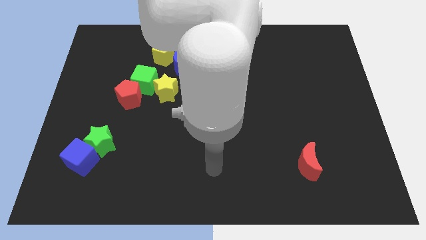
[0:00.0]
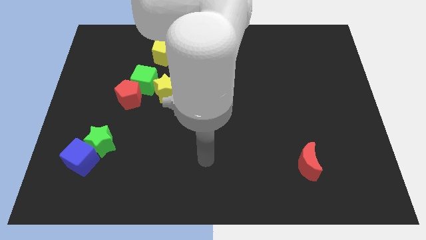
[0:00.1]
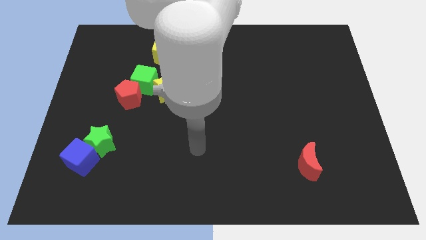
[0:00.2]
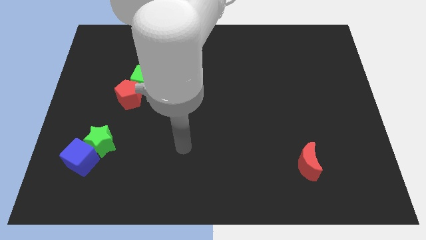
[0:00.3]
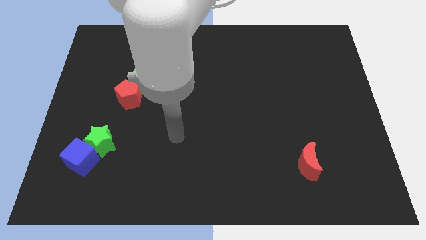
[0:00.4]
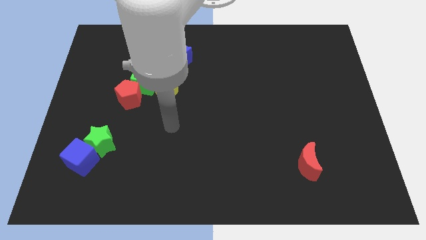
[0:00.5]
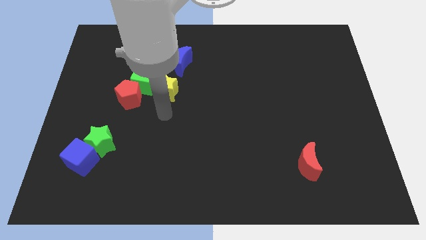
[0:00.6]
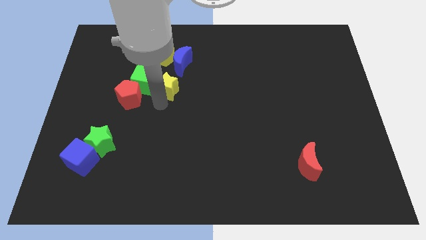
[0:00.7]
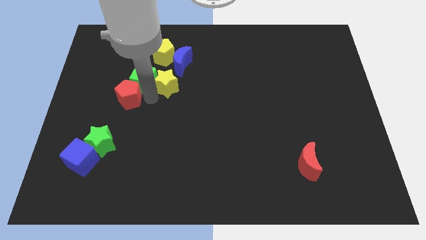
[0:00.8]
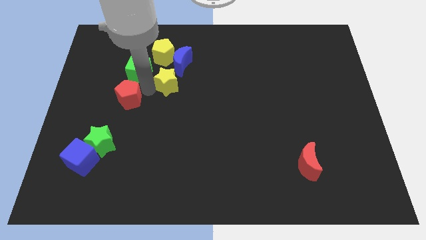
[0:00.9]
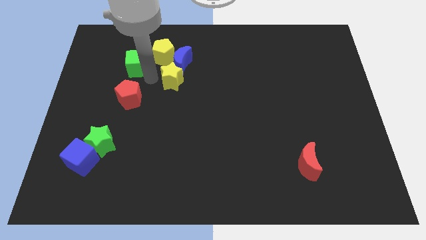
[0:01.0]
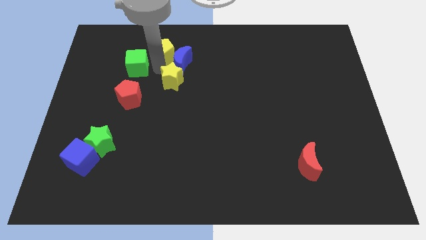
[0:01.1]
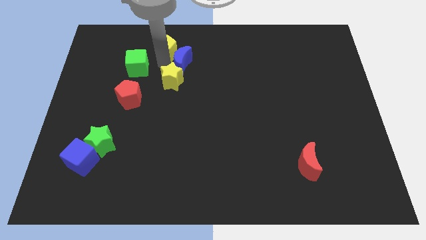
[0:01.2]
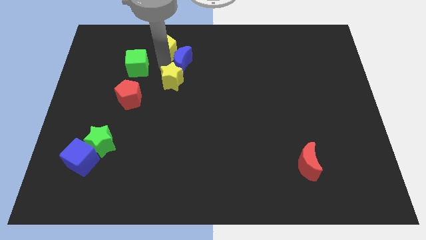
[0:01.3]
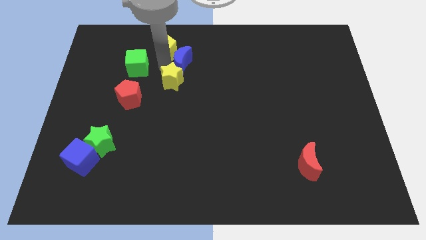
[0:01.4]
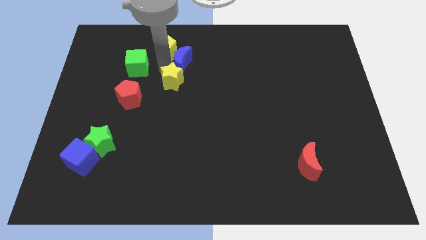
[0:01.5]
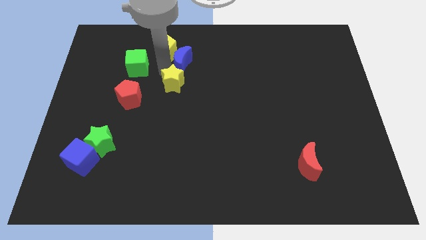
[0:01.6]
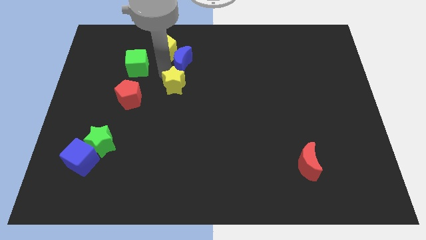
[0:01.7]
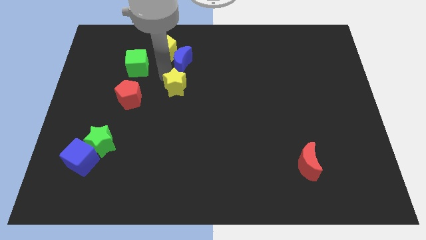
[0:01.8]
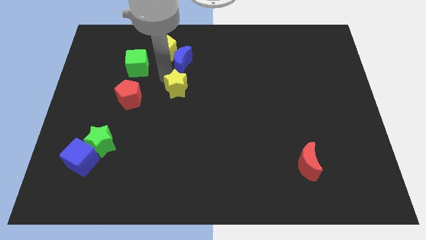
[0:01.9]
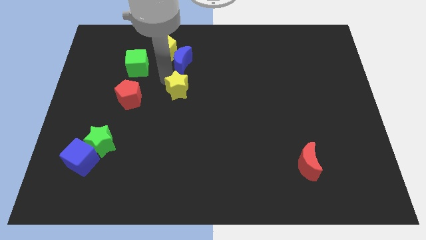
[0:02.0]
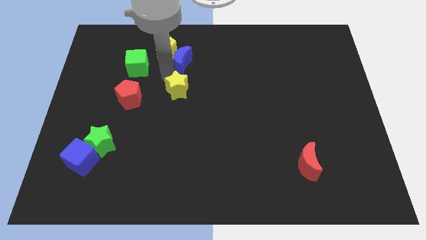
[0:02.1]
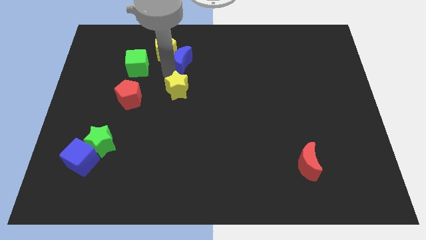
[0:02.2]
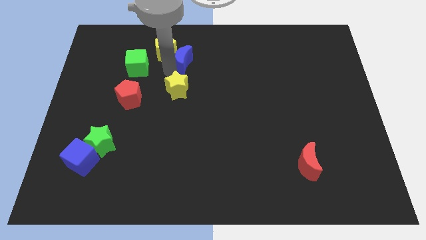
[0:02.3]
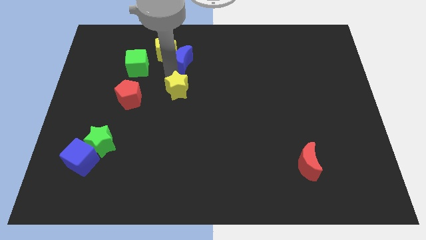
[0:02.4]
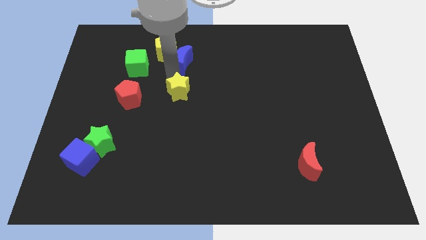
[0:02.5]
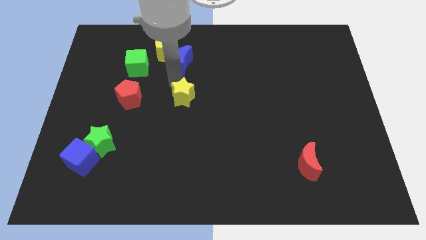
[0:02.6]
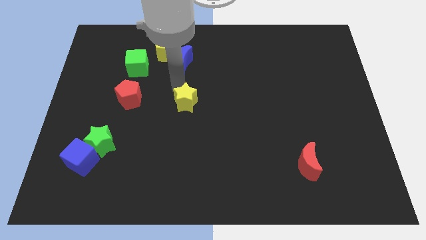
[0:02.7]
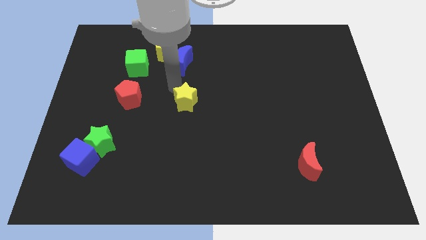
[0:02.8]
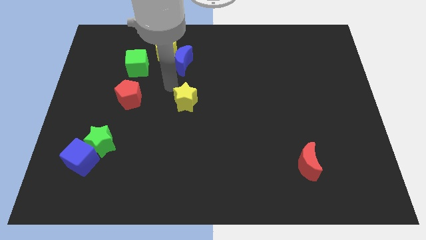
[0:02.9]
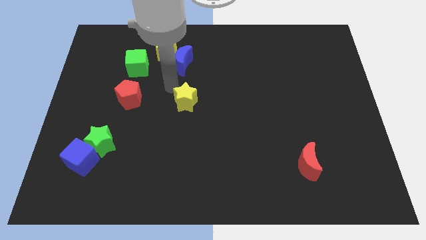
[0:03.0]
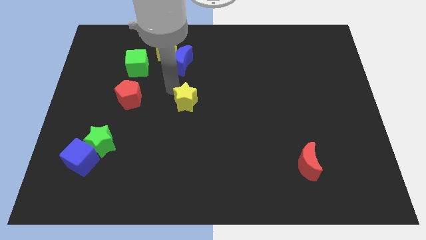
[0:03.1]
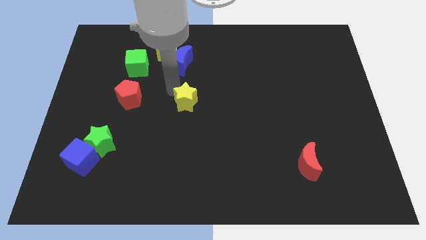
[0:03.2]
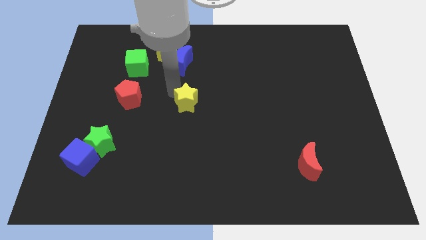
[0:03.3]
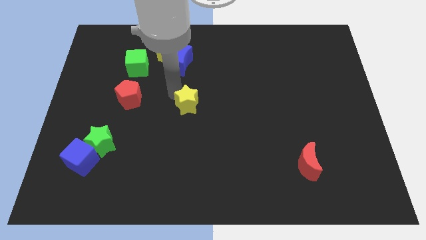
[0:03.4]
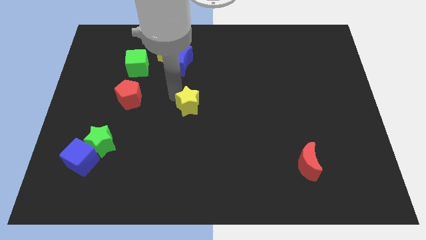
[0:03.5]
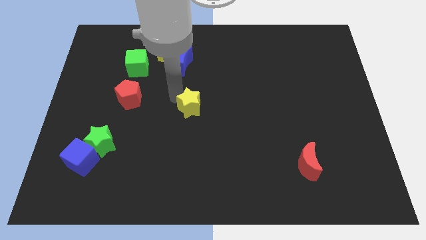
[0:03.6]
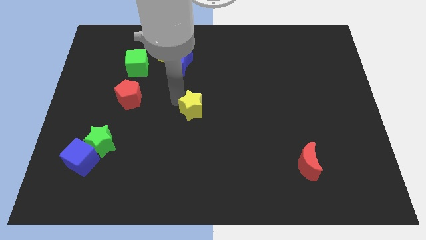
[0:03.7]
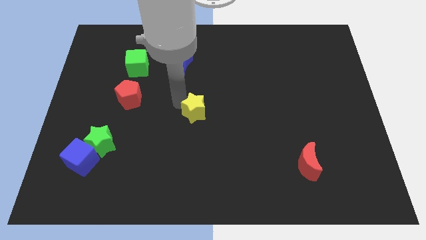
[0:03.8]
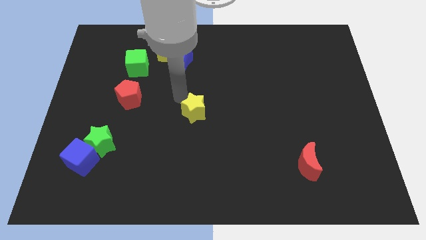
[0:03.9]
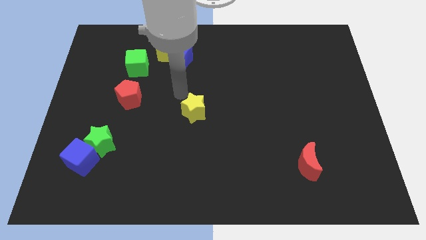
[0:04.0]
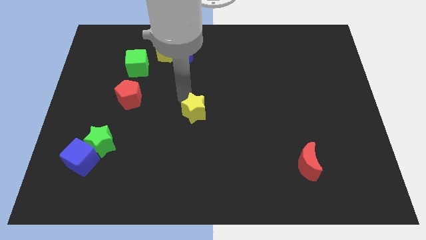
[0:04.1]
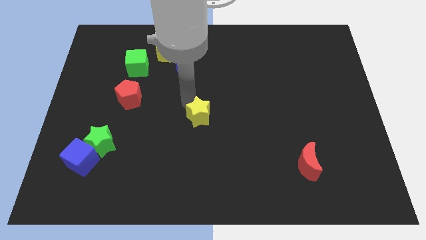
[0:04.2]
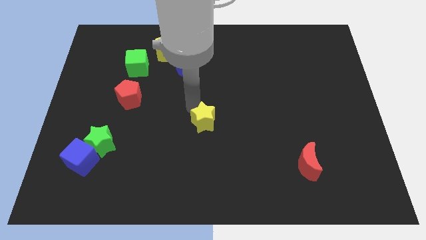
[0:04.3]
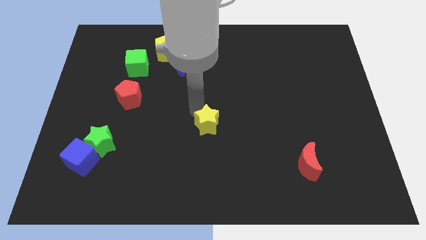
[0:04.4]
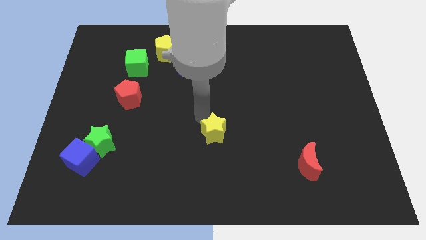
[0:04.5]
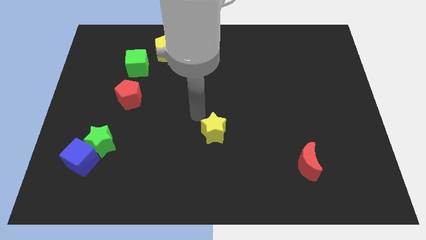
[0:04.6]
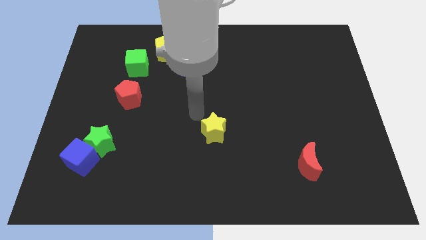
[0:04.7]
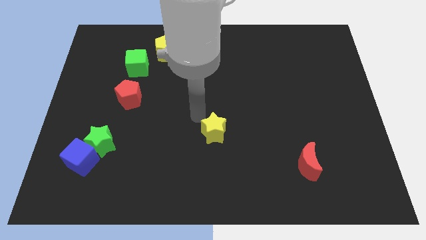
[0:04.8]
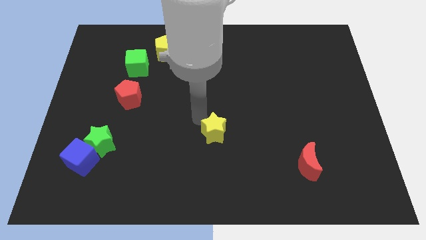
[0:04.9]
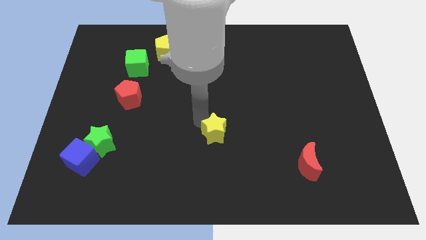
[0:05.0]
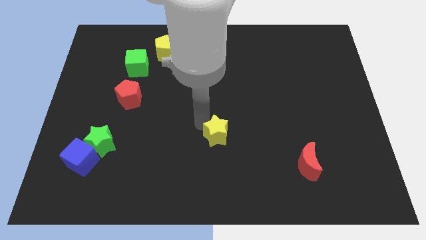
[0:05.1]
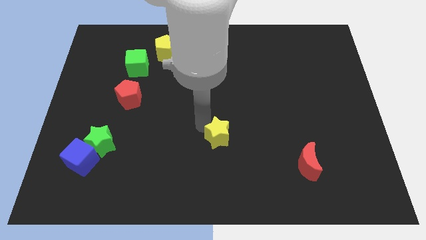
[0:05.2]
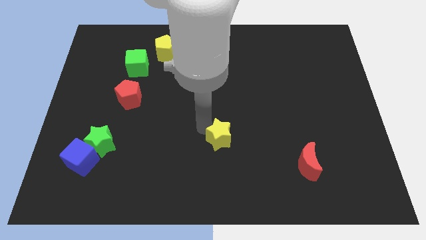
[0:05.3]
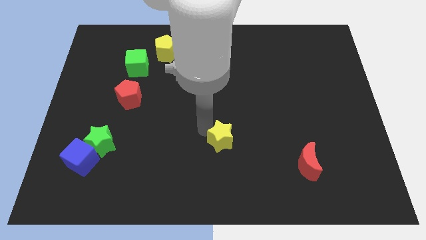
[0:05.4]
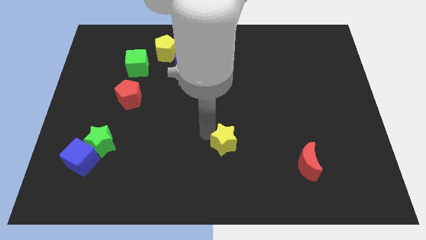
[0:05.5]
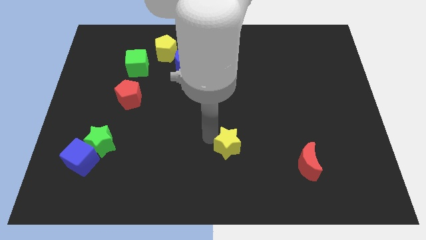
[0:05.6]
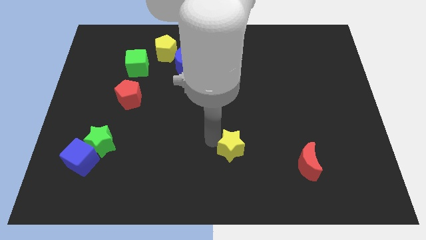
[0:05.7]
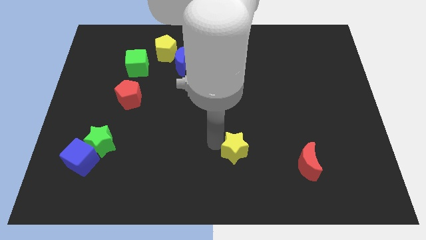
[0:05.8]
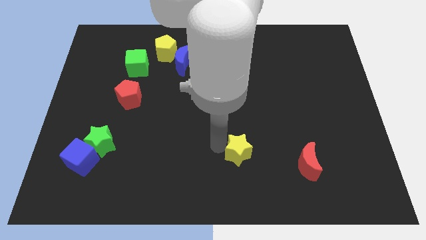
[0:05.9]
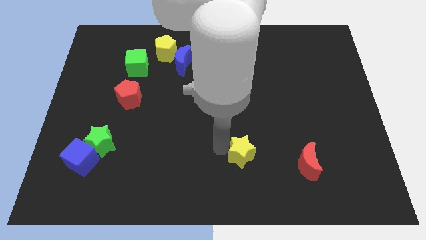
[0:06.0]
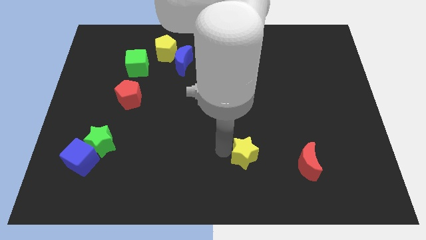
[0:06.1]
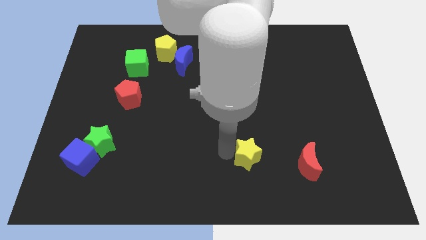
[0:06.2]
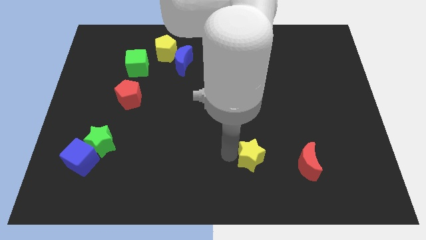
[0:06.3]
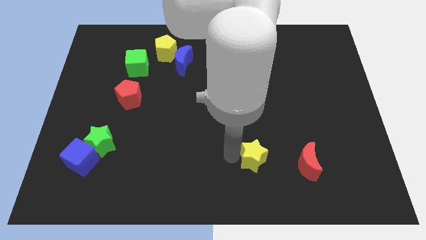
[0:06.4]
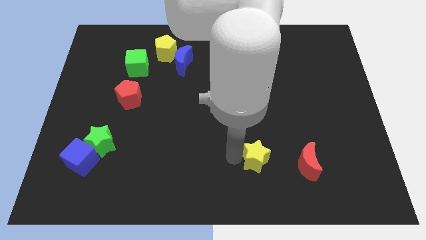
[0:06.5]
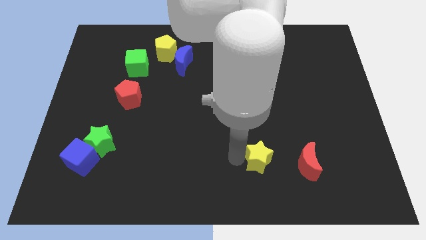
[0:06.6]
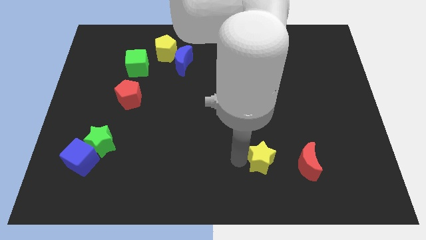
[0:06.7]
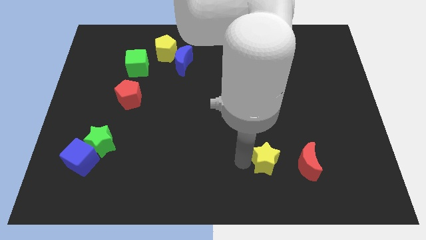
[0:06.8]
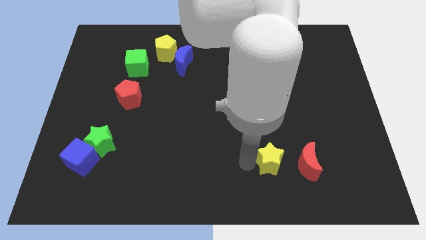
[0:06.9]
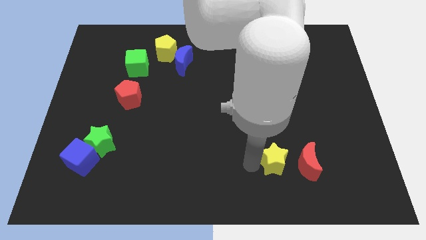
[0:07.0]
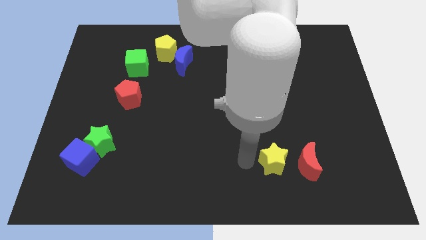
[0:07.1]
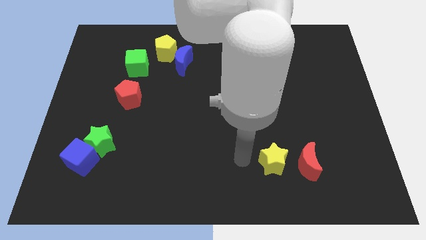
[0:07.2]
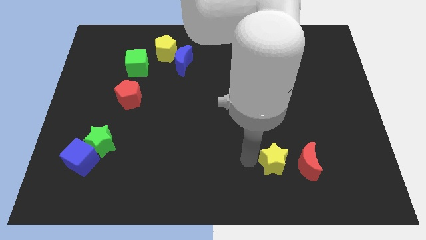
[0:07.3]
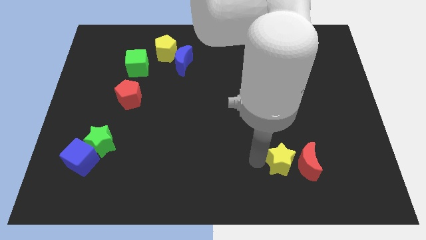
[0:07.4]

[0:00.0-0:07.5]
push the yellow star towards the red moon
